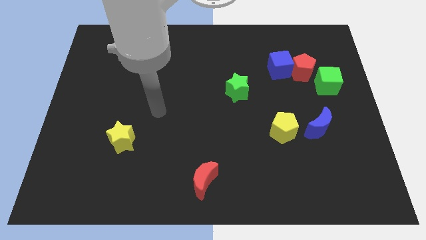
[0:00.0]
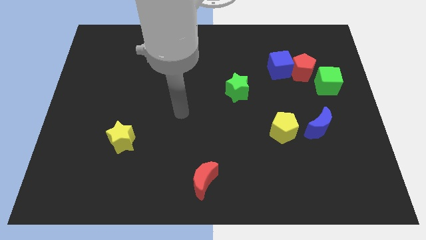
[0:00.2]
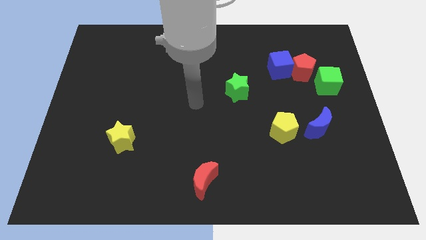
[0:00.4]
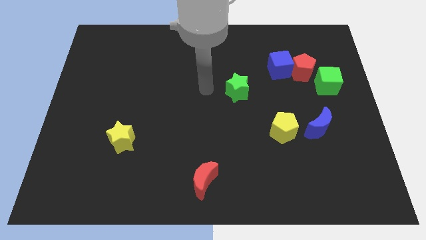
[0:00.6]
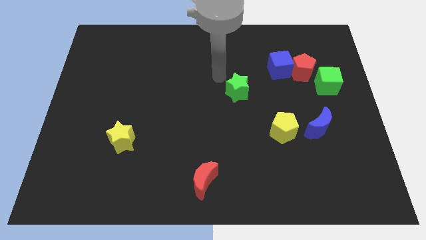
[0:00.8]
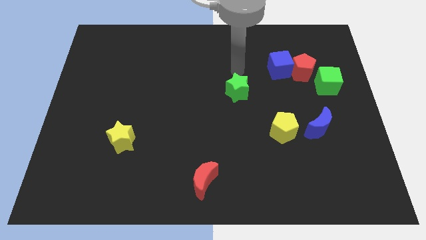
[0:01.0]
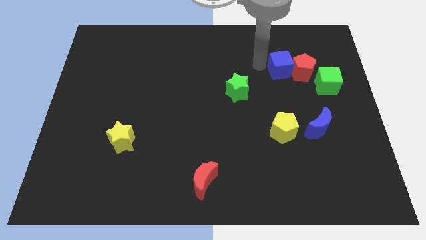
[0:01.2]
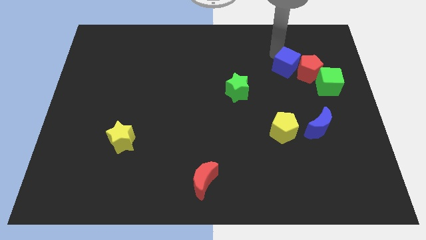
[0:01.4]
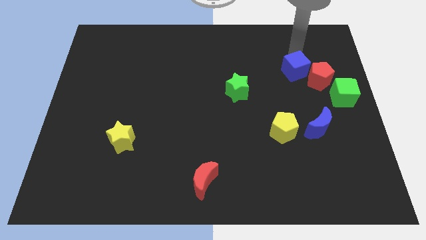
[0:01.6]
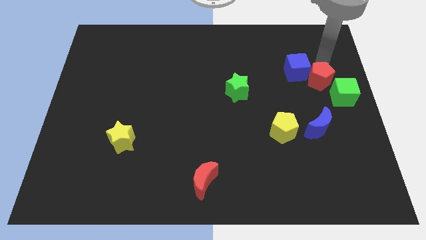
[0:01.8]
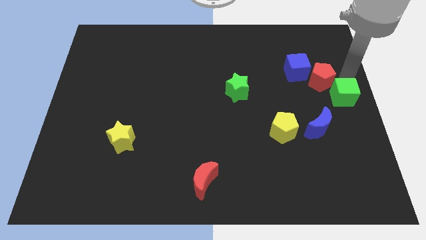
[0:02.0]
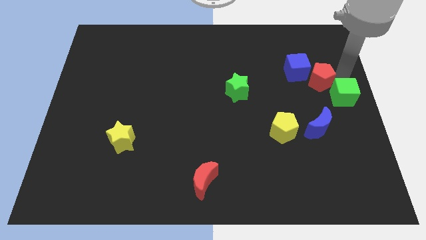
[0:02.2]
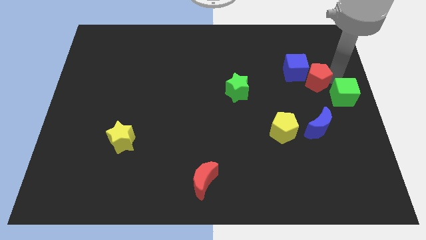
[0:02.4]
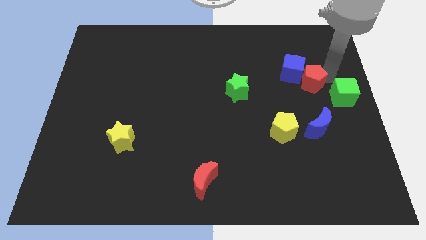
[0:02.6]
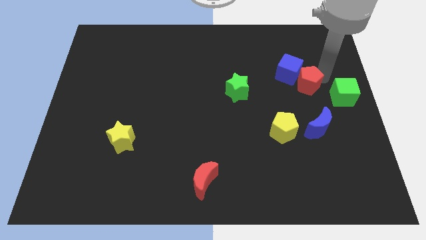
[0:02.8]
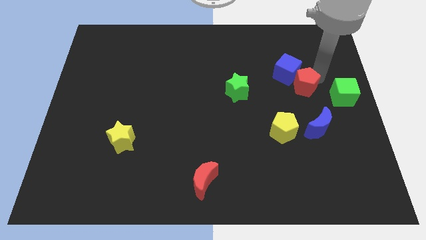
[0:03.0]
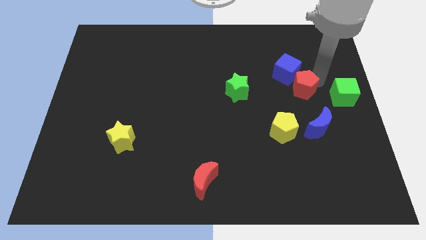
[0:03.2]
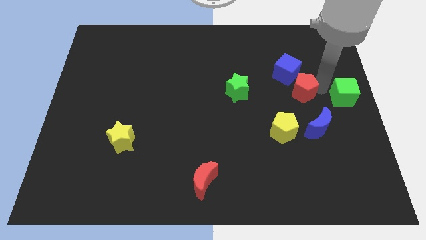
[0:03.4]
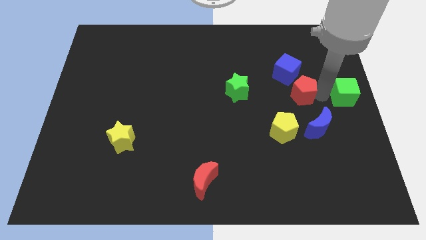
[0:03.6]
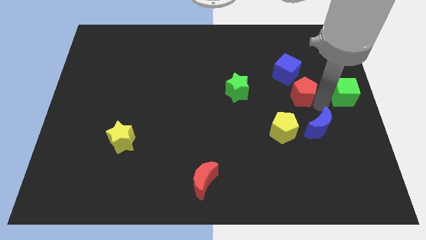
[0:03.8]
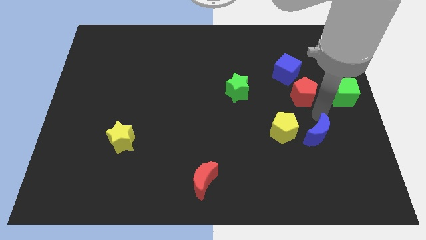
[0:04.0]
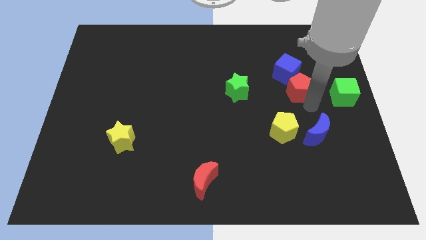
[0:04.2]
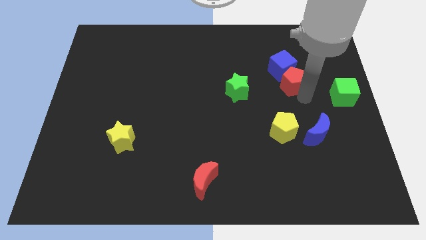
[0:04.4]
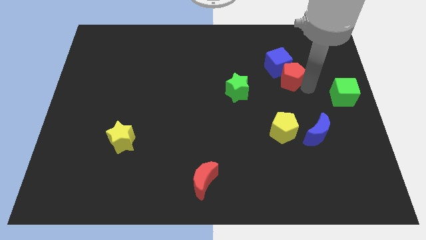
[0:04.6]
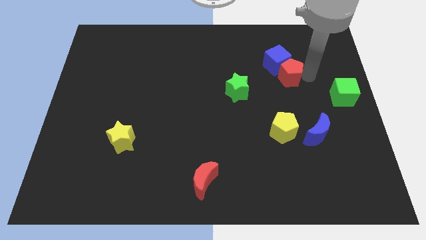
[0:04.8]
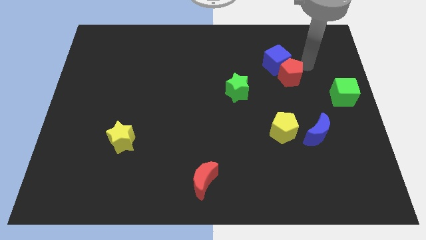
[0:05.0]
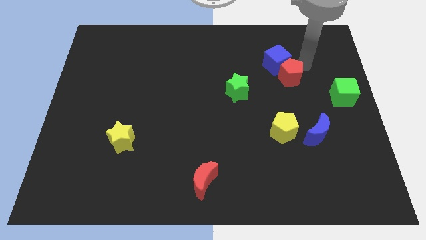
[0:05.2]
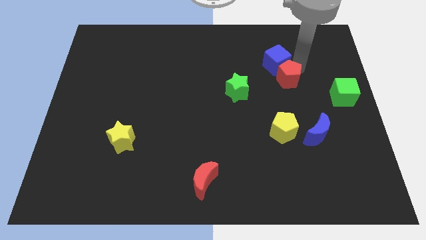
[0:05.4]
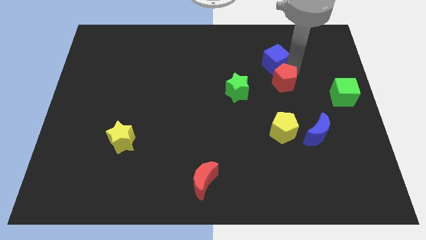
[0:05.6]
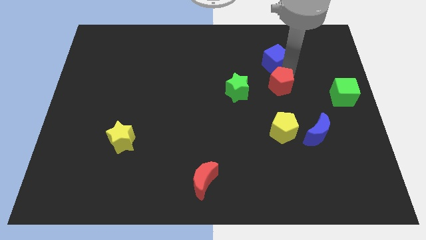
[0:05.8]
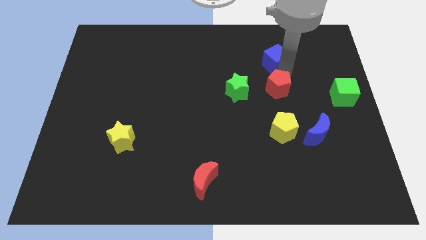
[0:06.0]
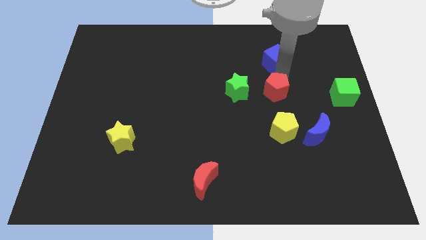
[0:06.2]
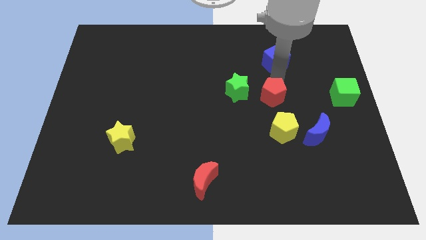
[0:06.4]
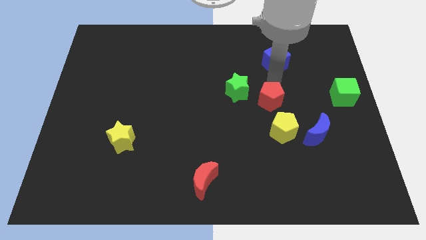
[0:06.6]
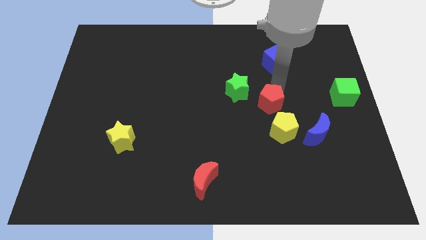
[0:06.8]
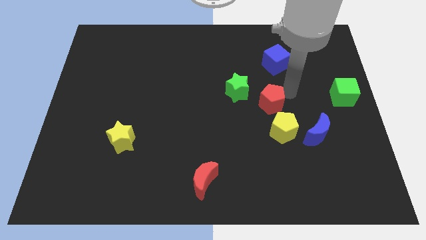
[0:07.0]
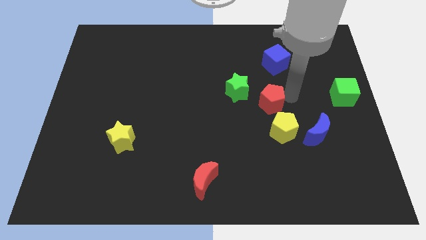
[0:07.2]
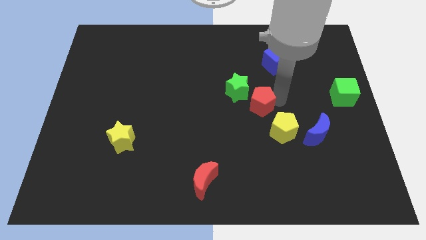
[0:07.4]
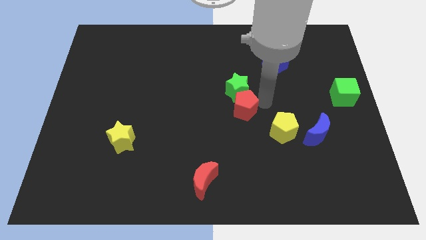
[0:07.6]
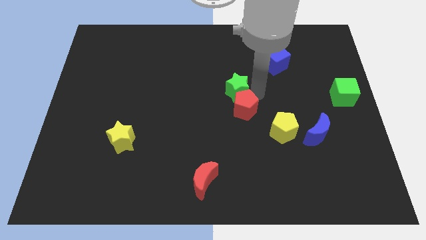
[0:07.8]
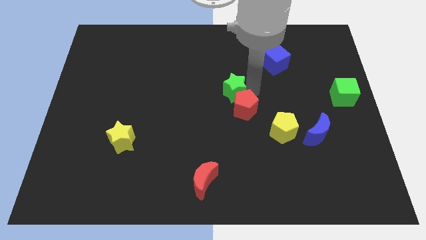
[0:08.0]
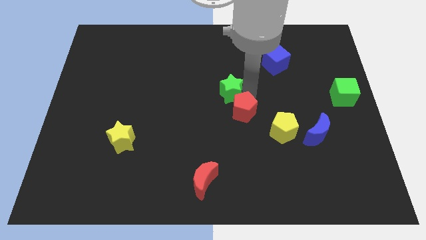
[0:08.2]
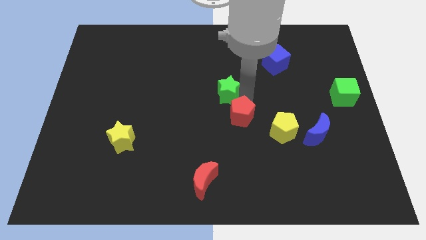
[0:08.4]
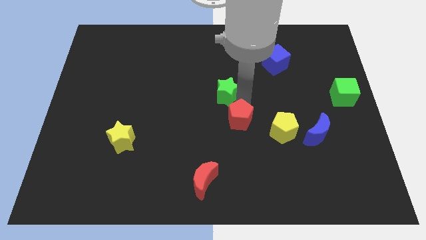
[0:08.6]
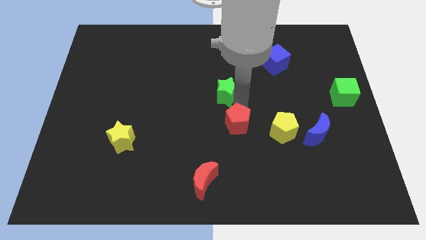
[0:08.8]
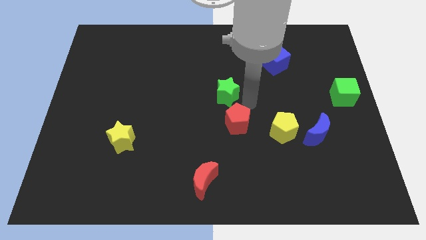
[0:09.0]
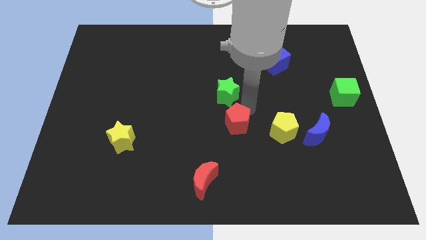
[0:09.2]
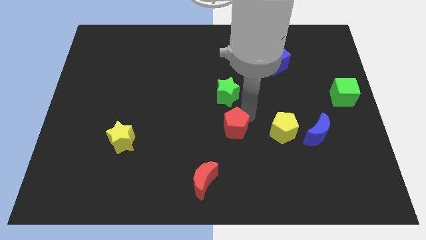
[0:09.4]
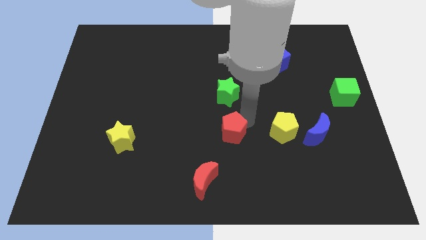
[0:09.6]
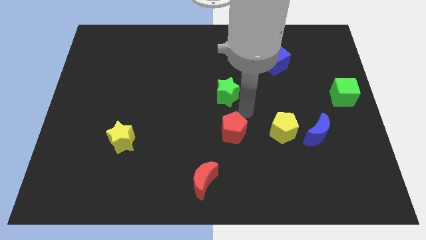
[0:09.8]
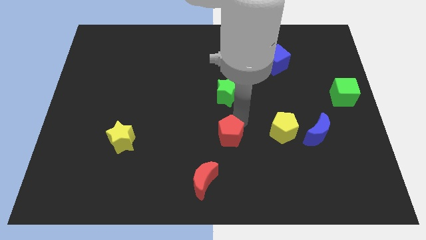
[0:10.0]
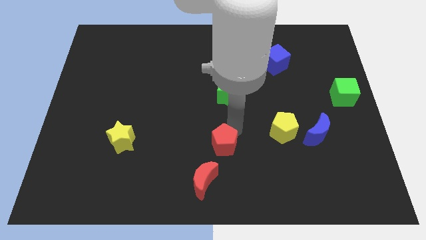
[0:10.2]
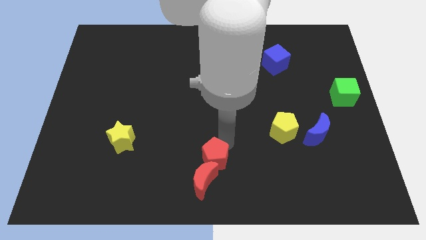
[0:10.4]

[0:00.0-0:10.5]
slide the red pentagon to the red moon

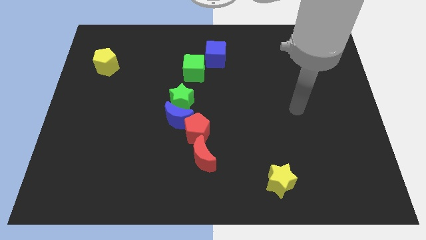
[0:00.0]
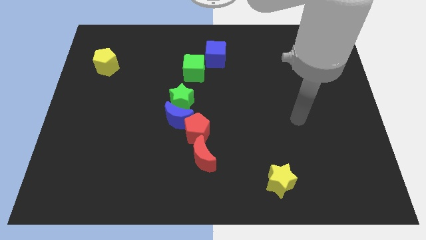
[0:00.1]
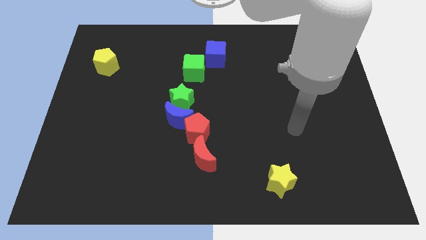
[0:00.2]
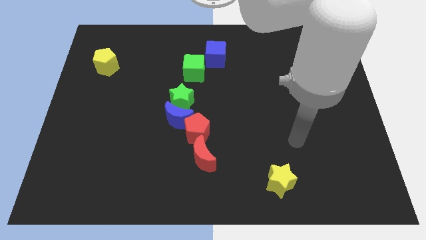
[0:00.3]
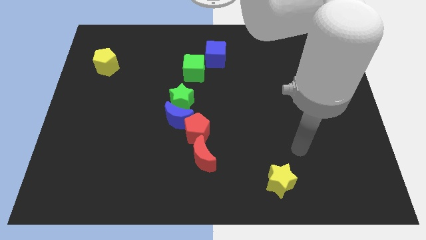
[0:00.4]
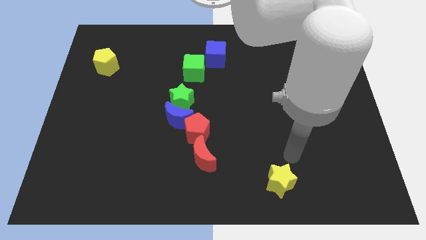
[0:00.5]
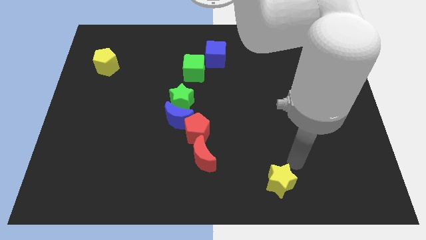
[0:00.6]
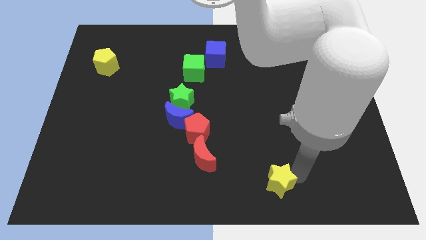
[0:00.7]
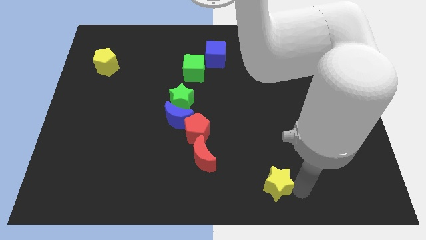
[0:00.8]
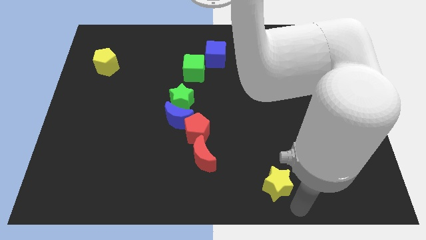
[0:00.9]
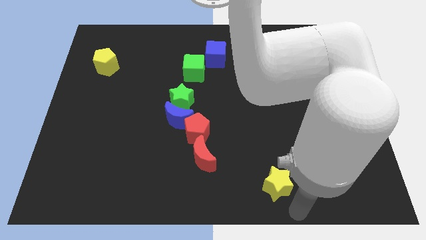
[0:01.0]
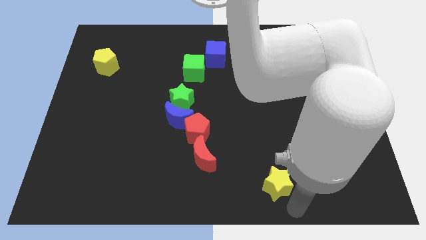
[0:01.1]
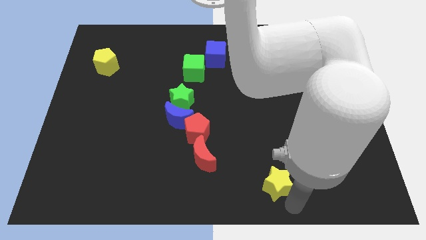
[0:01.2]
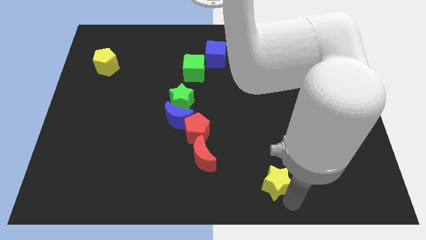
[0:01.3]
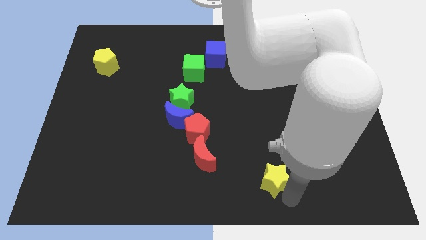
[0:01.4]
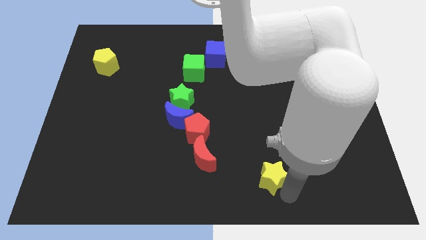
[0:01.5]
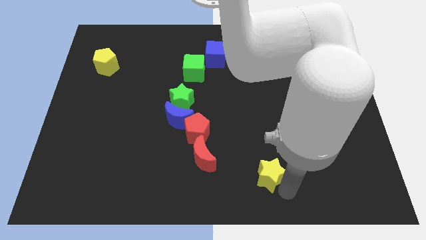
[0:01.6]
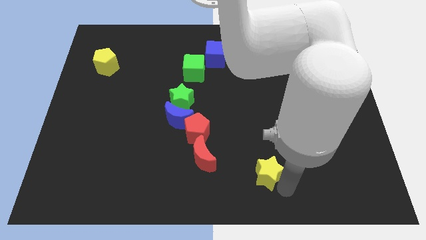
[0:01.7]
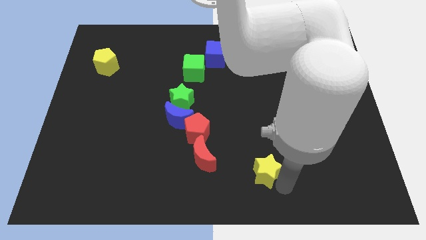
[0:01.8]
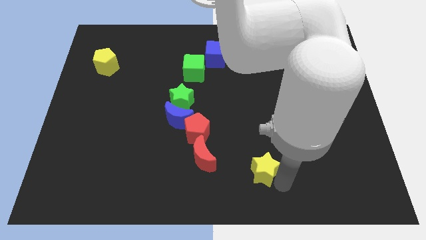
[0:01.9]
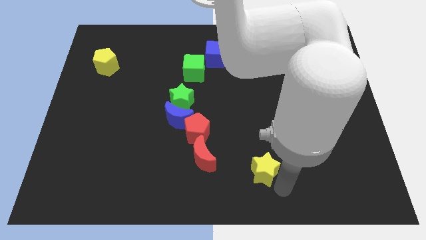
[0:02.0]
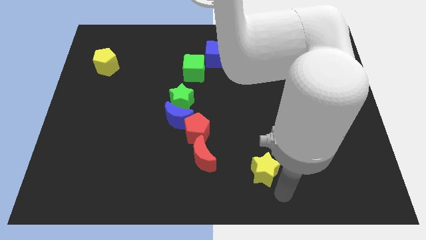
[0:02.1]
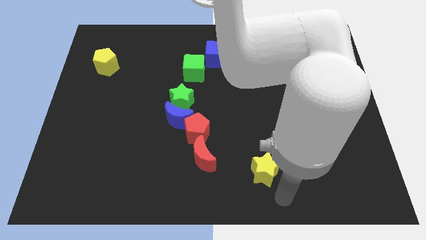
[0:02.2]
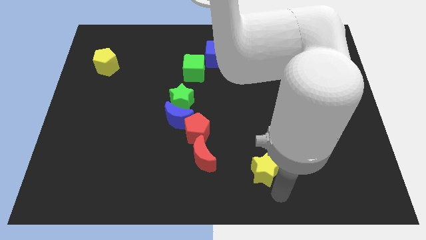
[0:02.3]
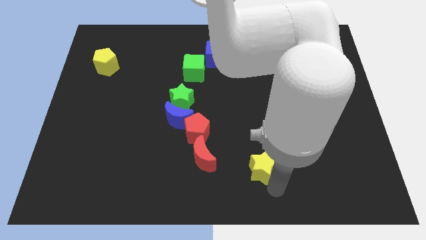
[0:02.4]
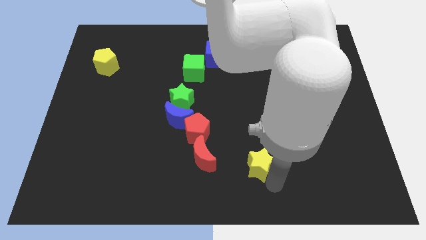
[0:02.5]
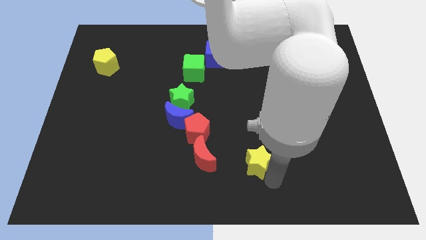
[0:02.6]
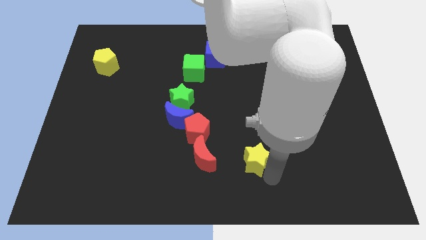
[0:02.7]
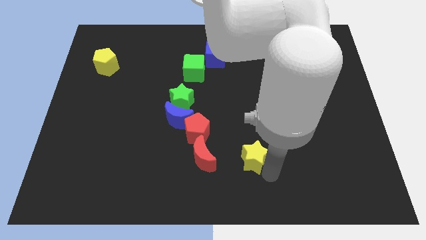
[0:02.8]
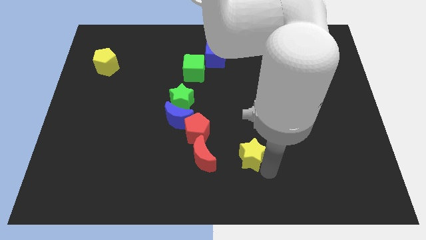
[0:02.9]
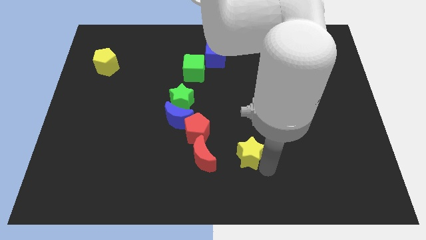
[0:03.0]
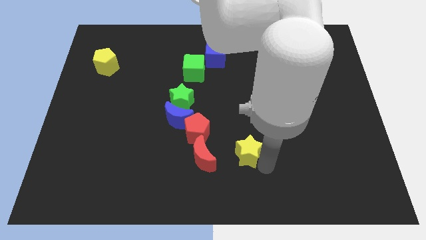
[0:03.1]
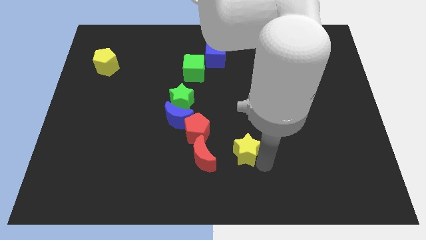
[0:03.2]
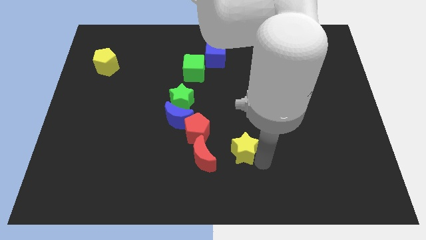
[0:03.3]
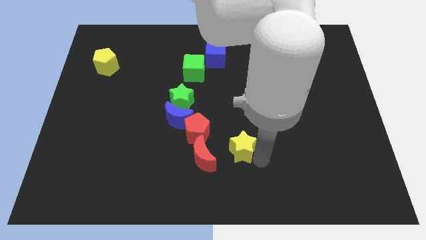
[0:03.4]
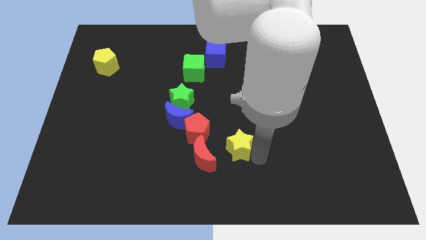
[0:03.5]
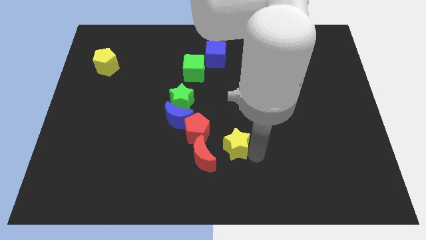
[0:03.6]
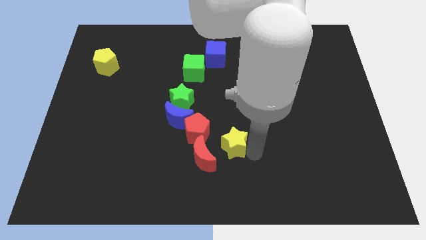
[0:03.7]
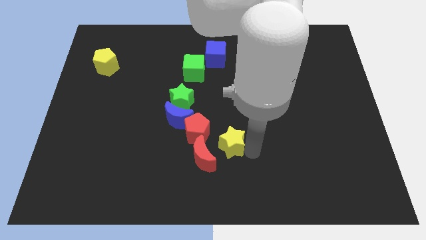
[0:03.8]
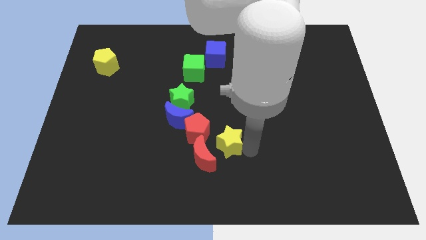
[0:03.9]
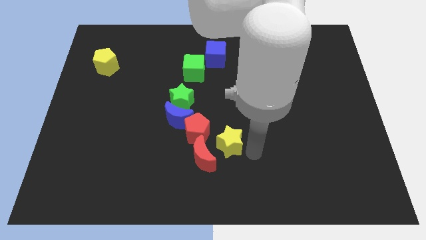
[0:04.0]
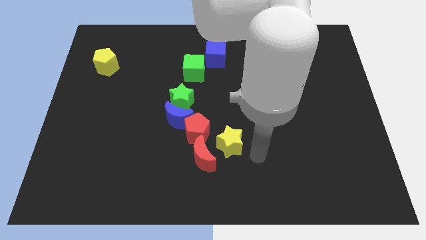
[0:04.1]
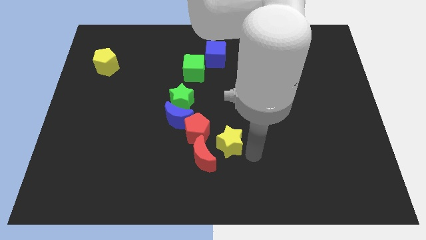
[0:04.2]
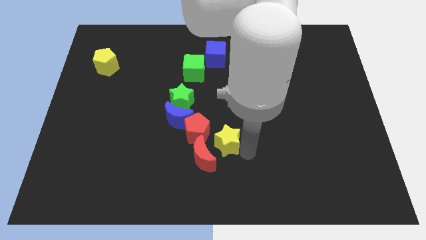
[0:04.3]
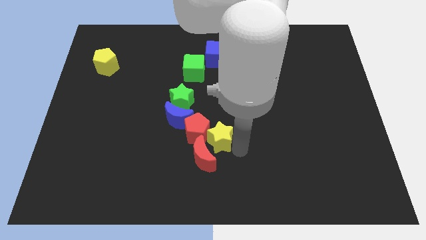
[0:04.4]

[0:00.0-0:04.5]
push the yellow star to the red pentagon
